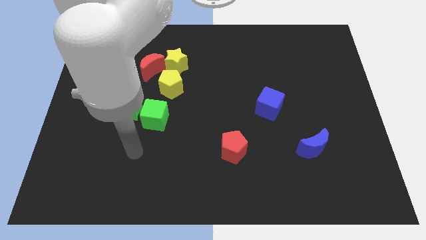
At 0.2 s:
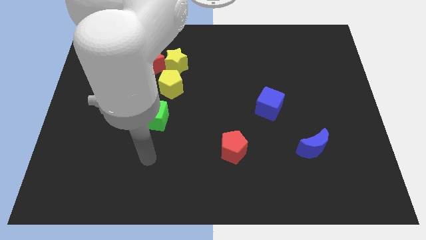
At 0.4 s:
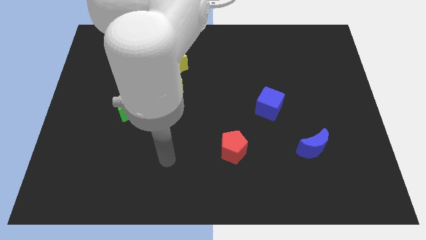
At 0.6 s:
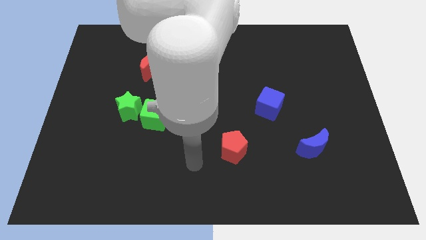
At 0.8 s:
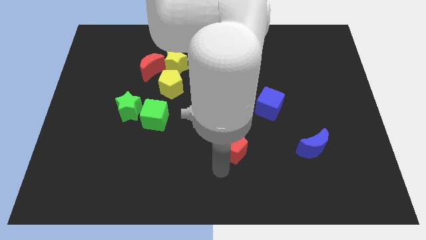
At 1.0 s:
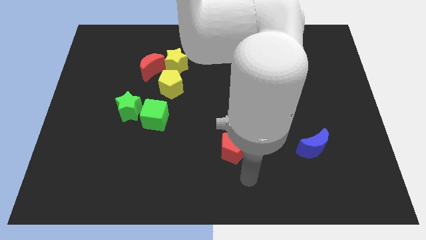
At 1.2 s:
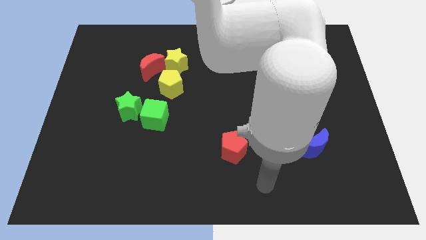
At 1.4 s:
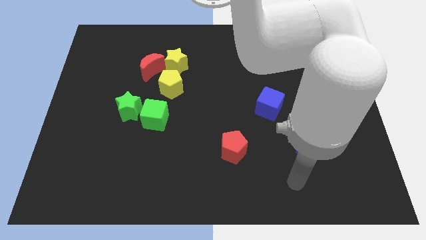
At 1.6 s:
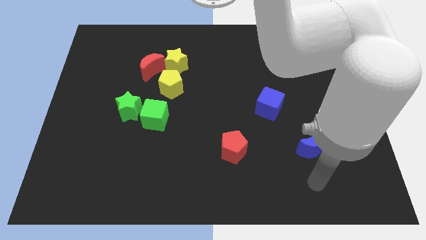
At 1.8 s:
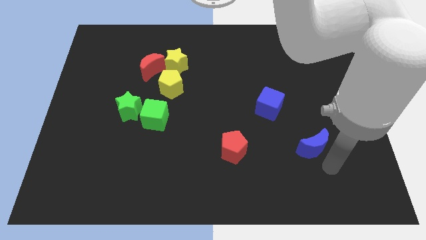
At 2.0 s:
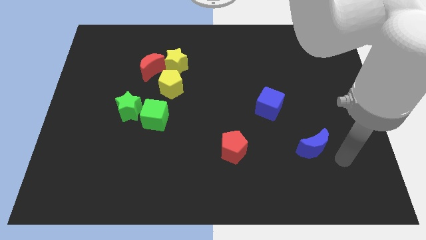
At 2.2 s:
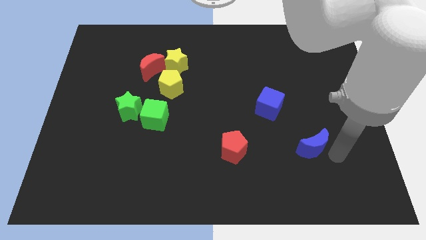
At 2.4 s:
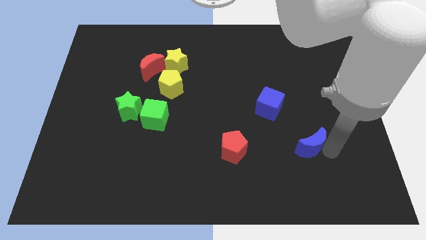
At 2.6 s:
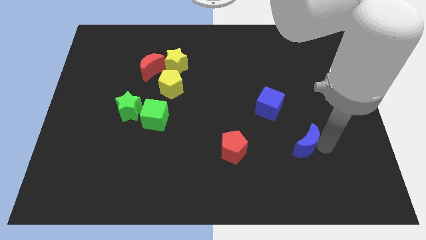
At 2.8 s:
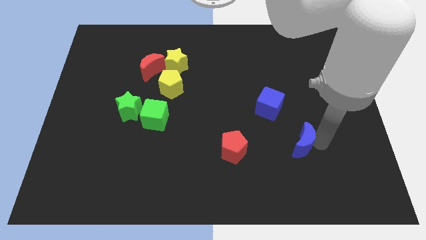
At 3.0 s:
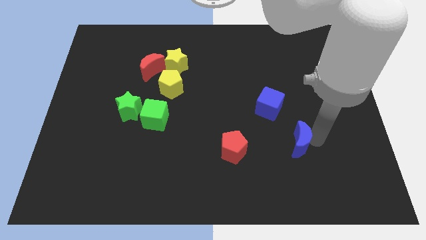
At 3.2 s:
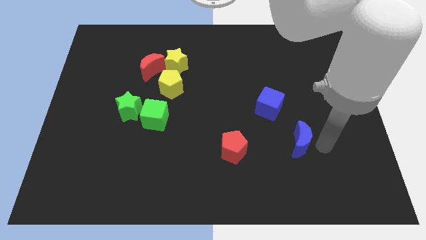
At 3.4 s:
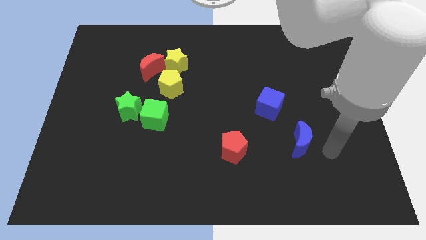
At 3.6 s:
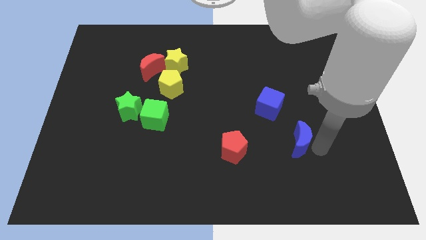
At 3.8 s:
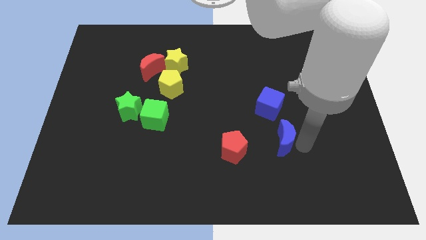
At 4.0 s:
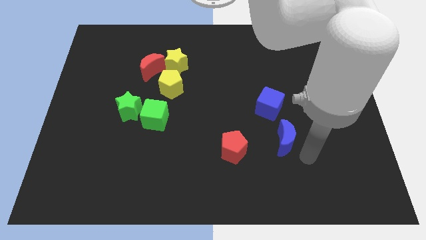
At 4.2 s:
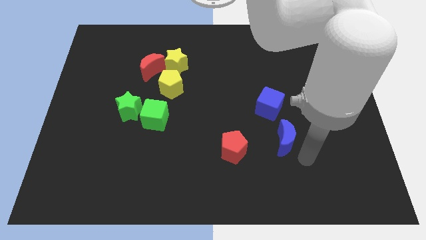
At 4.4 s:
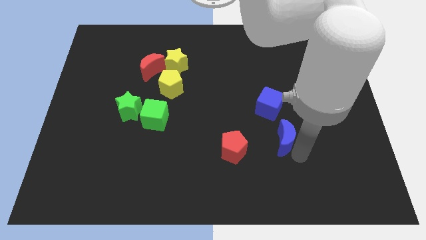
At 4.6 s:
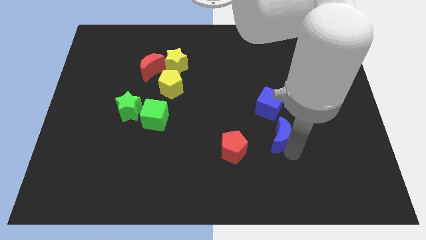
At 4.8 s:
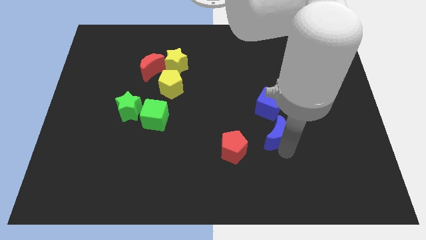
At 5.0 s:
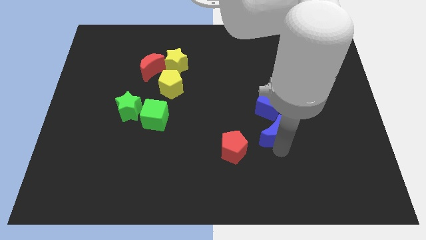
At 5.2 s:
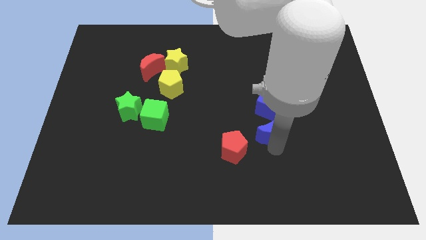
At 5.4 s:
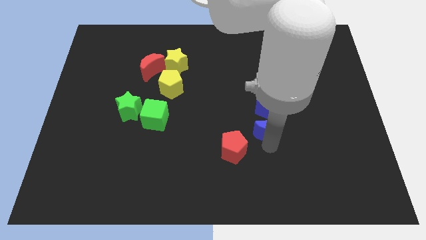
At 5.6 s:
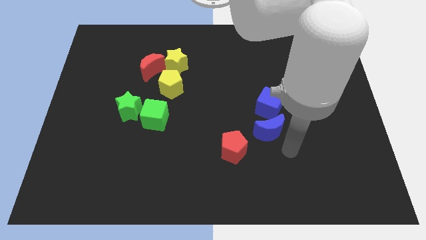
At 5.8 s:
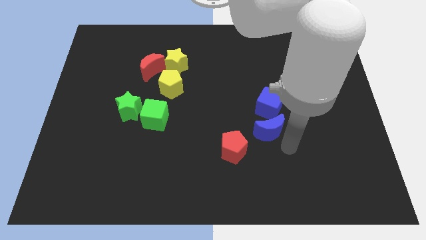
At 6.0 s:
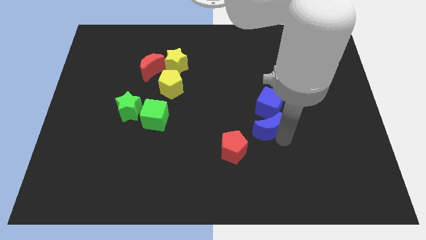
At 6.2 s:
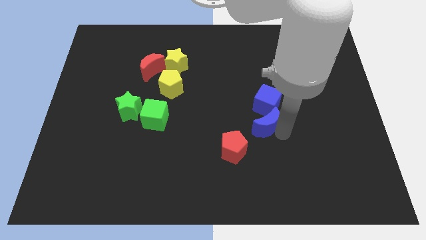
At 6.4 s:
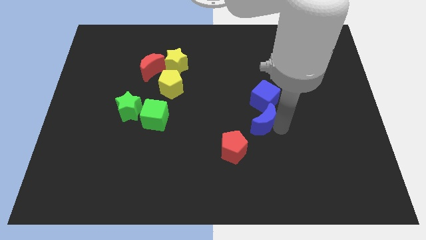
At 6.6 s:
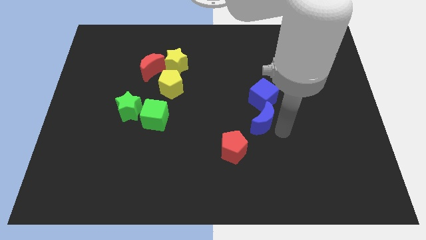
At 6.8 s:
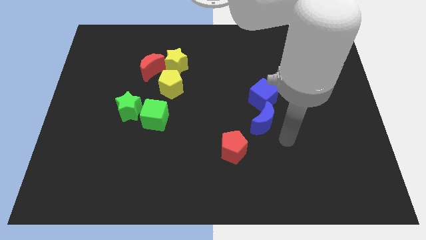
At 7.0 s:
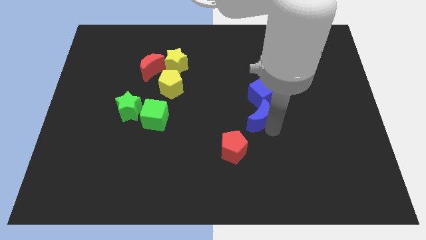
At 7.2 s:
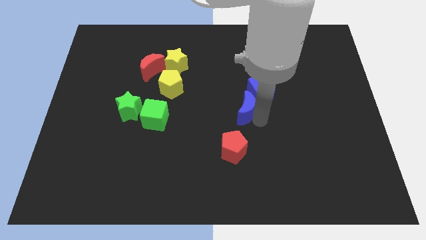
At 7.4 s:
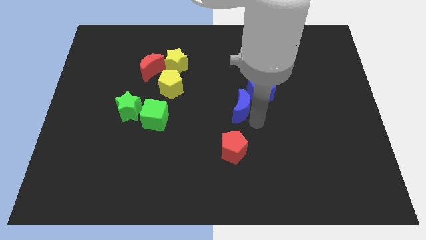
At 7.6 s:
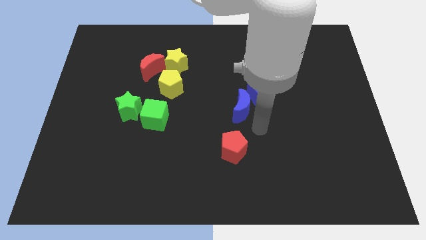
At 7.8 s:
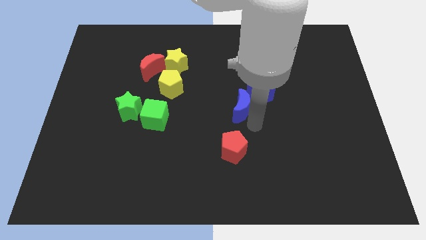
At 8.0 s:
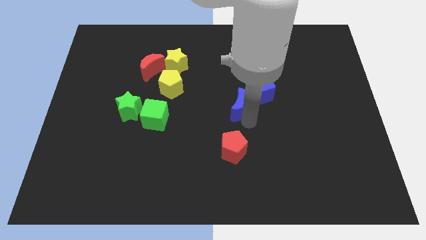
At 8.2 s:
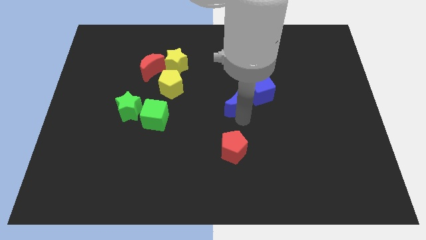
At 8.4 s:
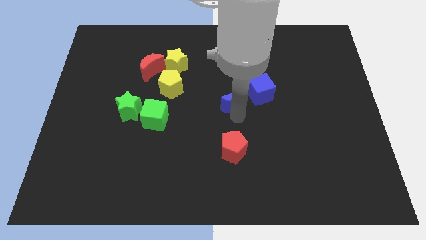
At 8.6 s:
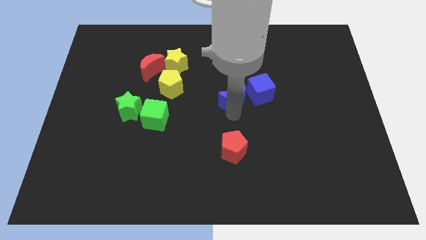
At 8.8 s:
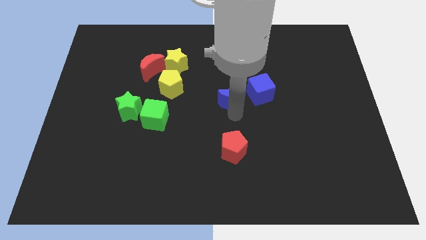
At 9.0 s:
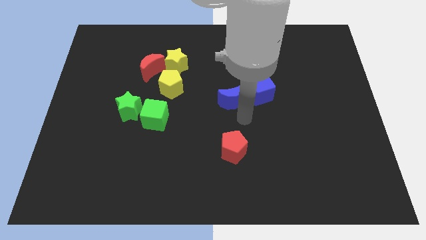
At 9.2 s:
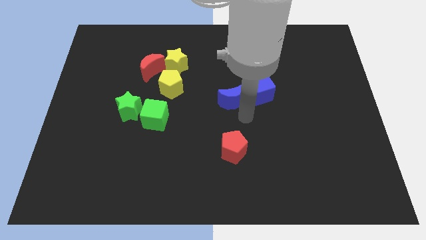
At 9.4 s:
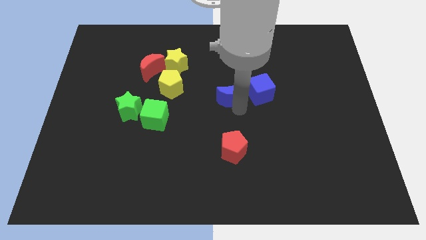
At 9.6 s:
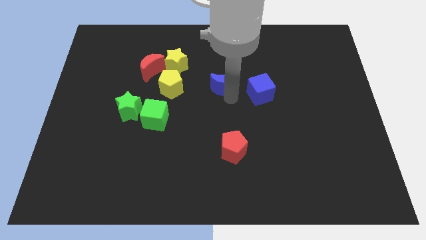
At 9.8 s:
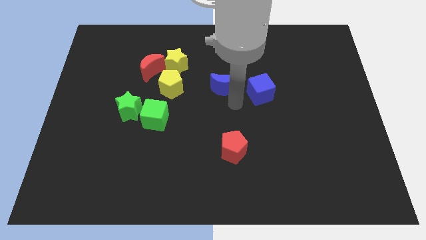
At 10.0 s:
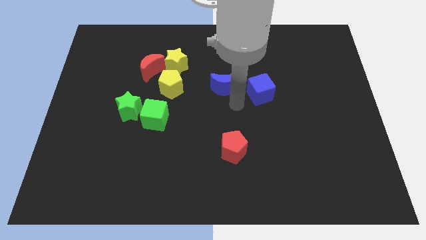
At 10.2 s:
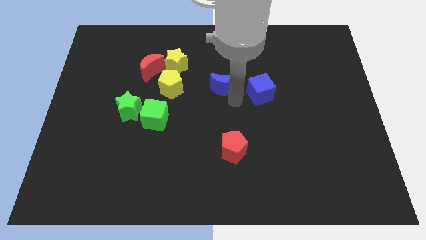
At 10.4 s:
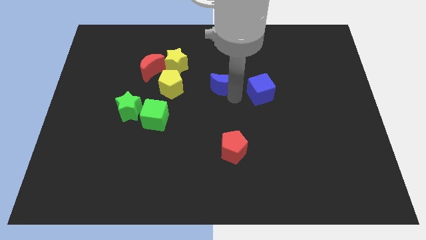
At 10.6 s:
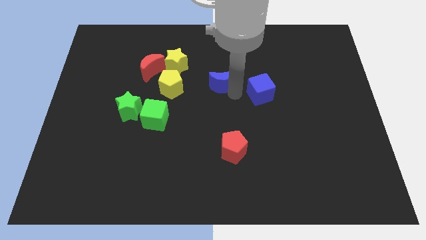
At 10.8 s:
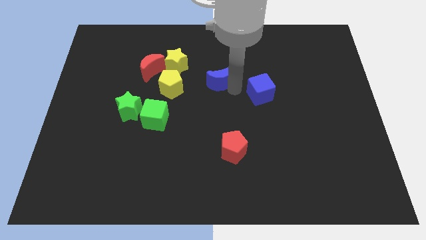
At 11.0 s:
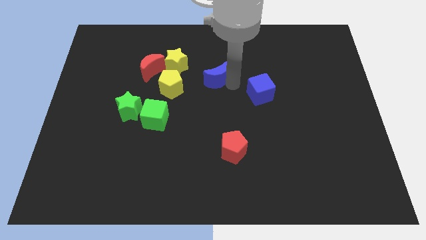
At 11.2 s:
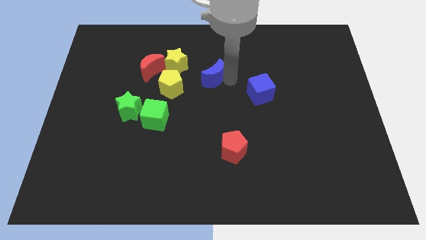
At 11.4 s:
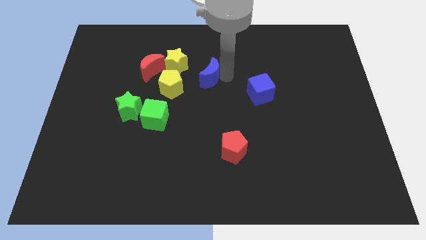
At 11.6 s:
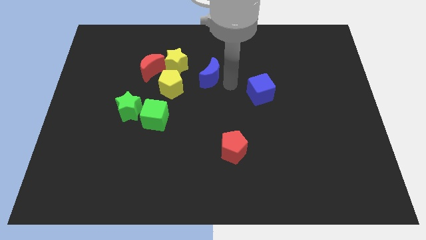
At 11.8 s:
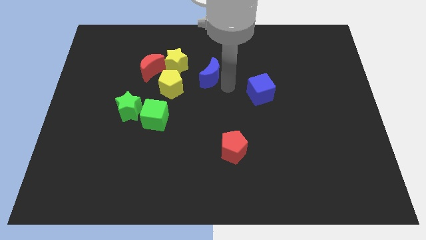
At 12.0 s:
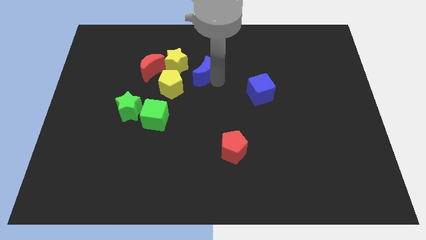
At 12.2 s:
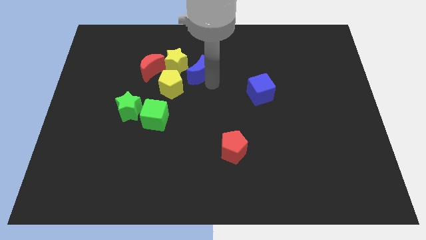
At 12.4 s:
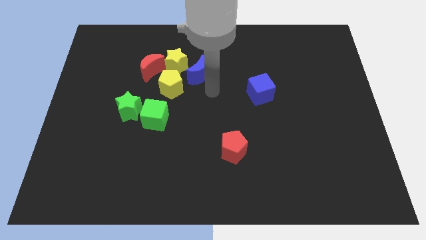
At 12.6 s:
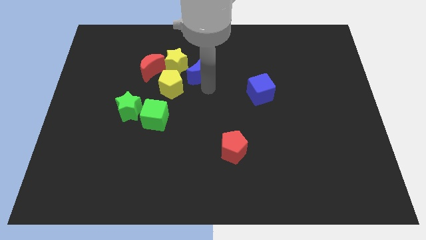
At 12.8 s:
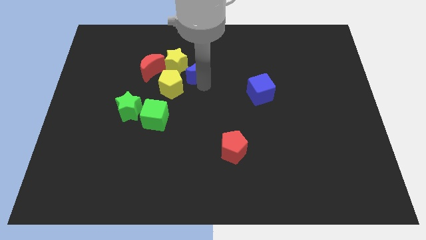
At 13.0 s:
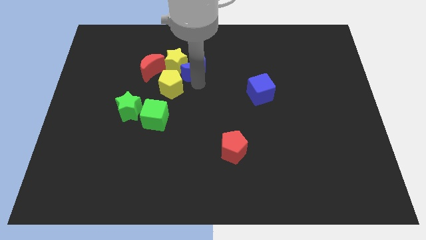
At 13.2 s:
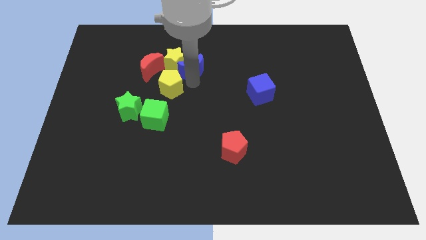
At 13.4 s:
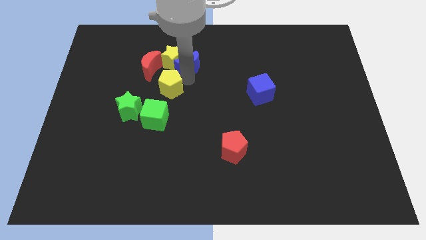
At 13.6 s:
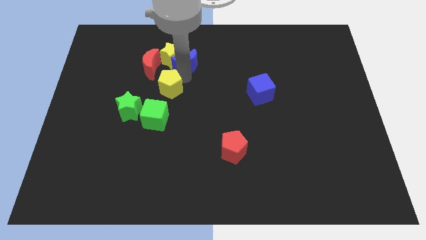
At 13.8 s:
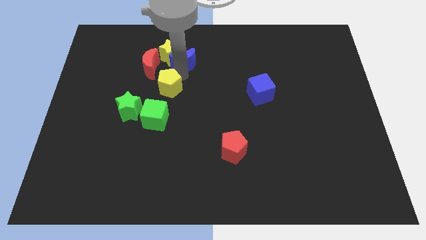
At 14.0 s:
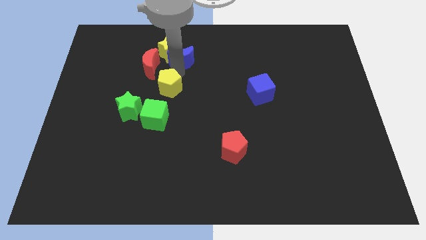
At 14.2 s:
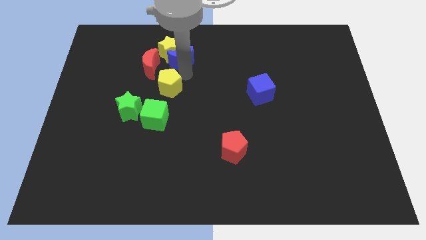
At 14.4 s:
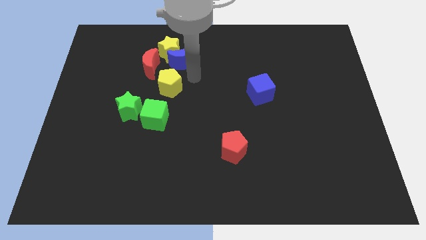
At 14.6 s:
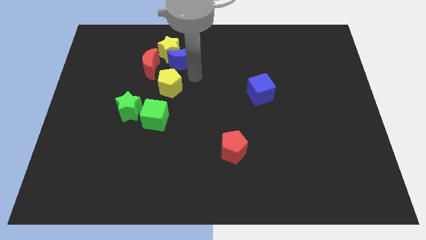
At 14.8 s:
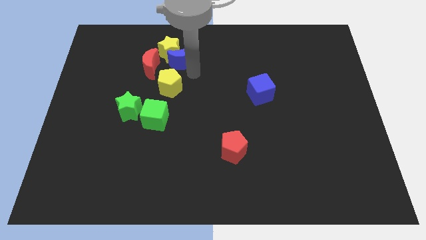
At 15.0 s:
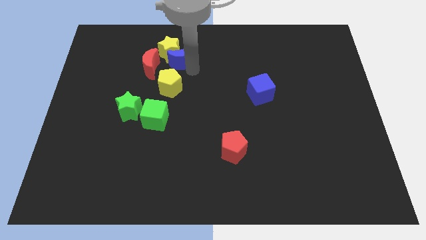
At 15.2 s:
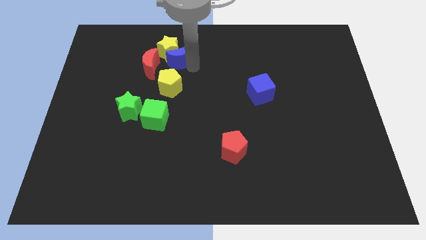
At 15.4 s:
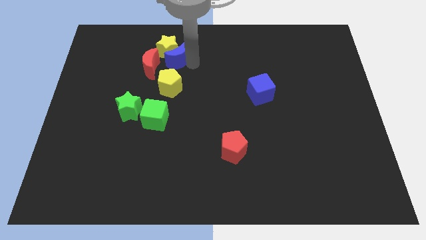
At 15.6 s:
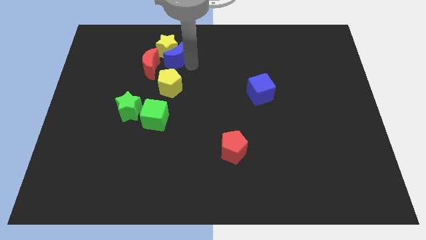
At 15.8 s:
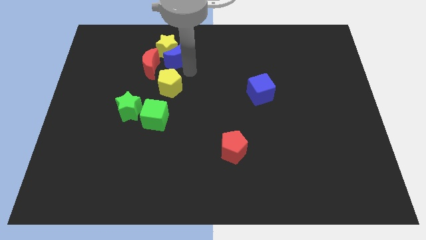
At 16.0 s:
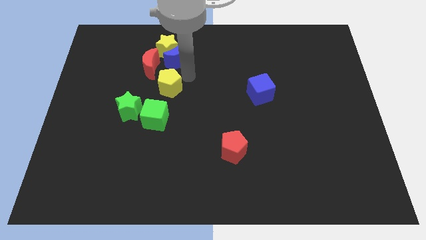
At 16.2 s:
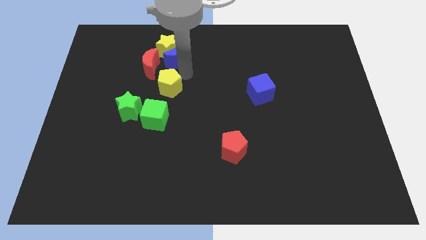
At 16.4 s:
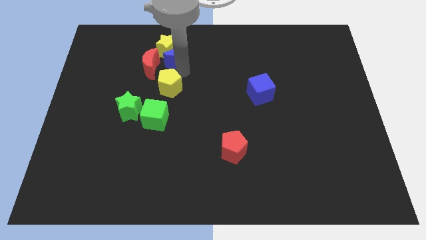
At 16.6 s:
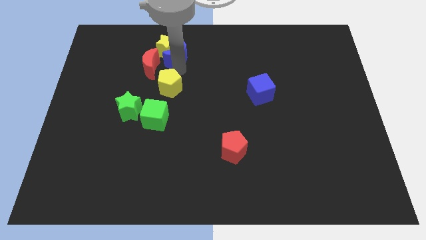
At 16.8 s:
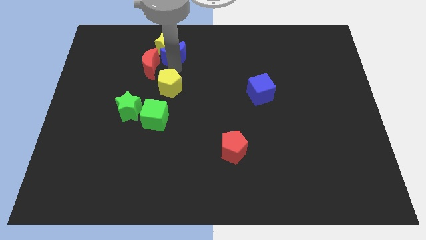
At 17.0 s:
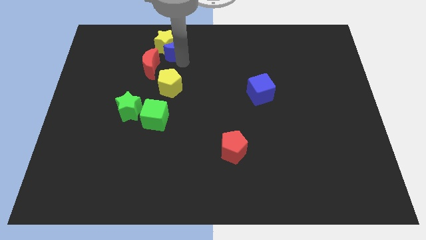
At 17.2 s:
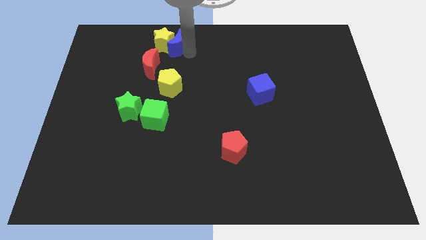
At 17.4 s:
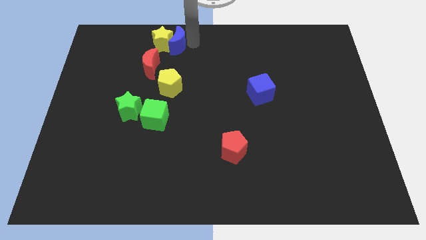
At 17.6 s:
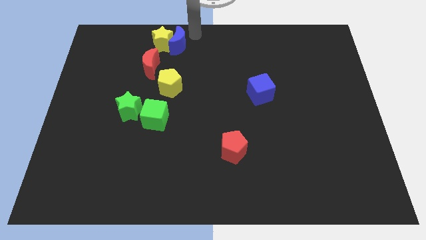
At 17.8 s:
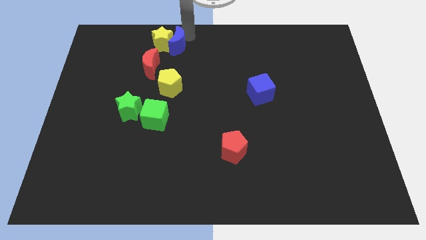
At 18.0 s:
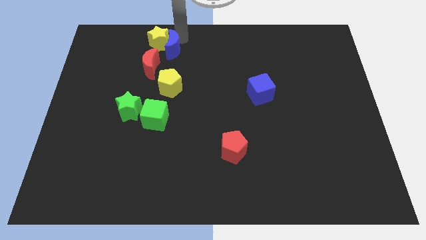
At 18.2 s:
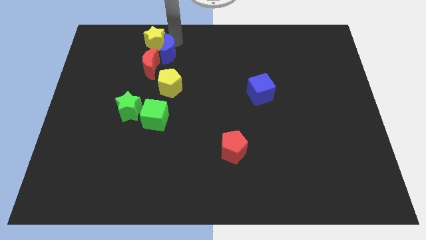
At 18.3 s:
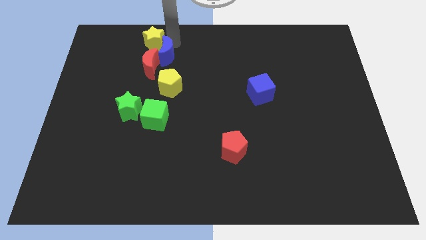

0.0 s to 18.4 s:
push the blue moon close to the red moon
